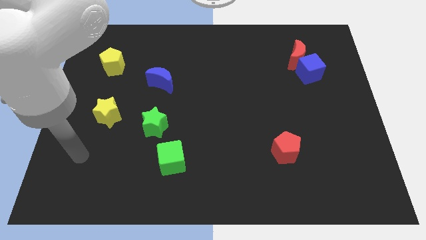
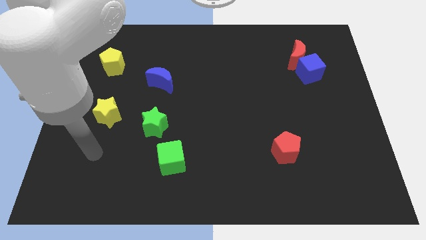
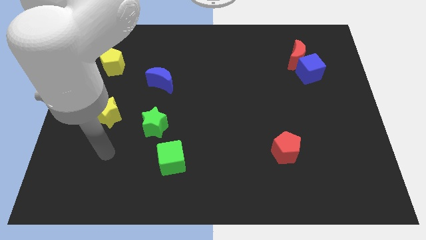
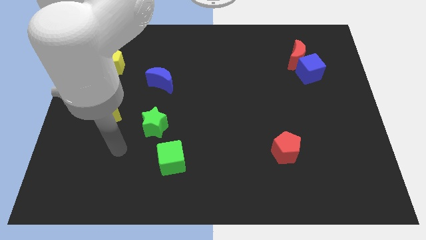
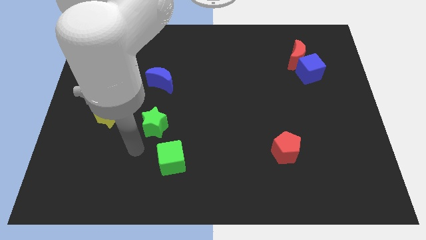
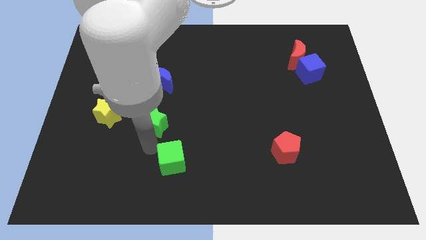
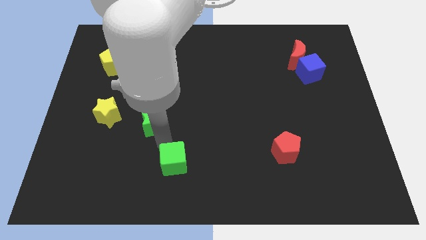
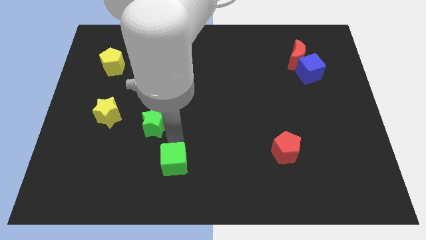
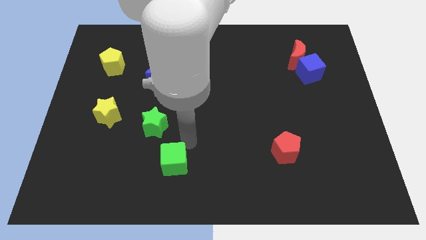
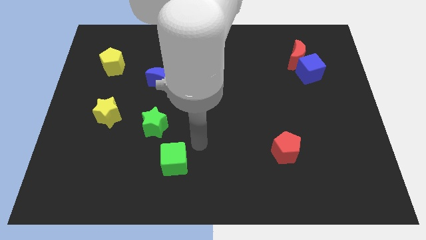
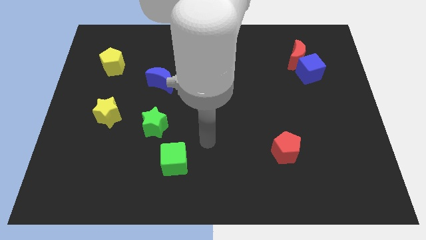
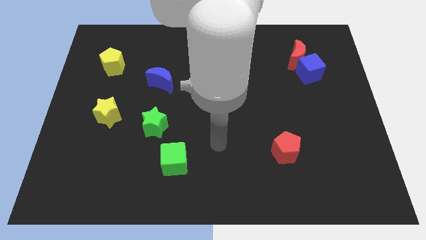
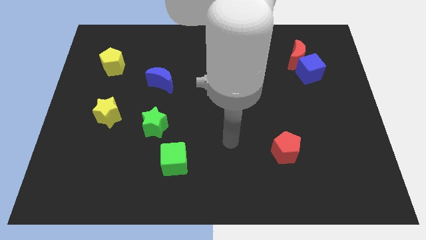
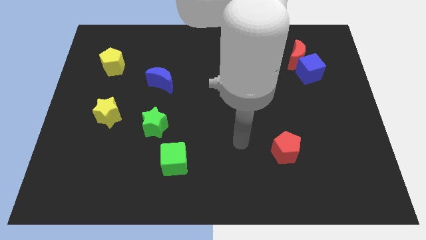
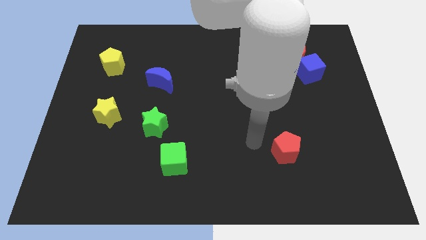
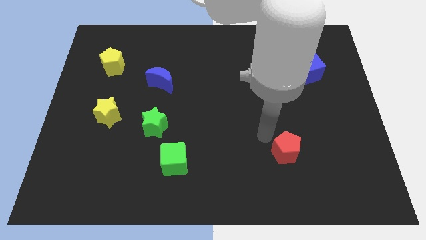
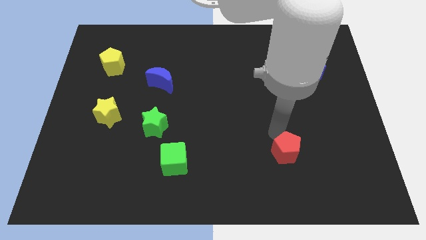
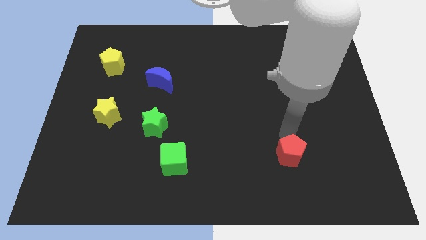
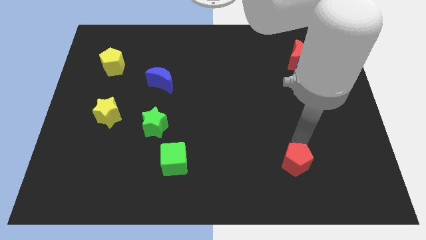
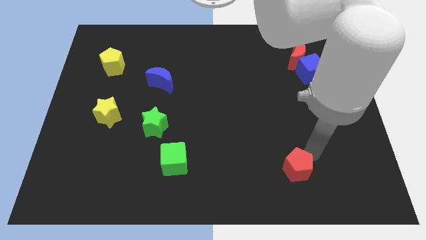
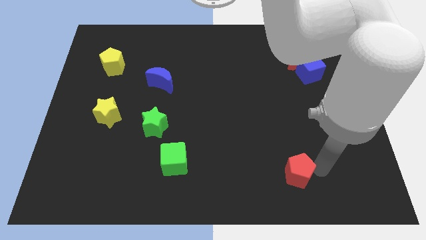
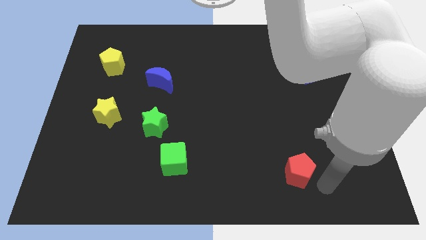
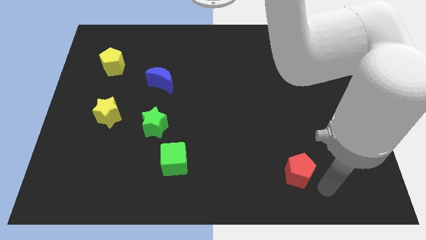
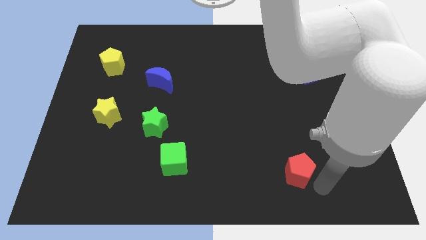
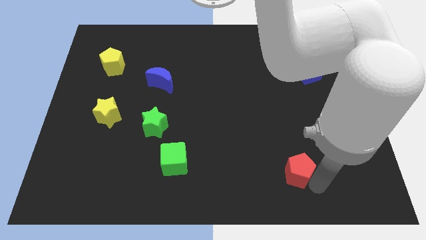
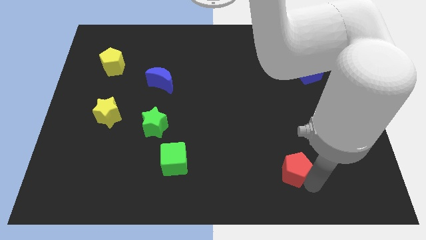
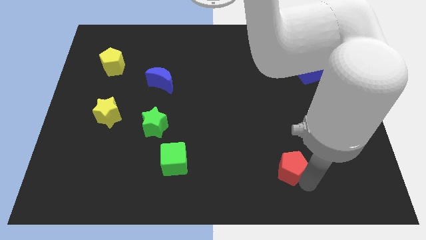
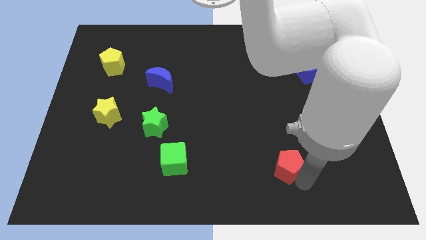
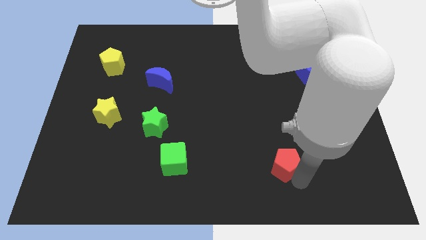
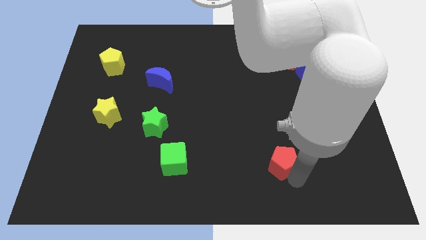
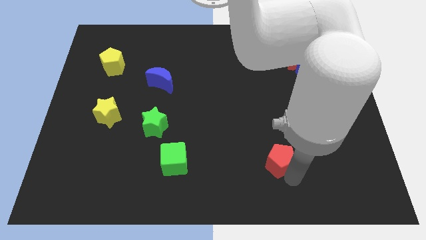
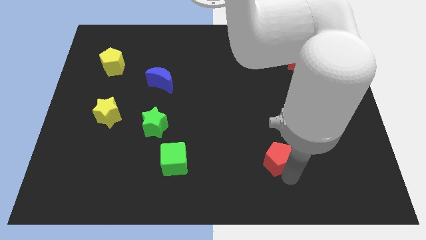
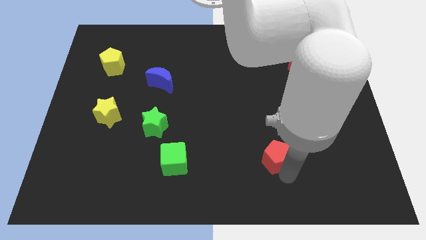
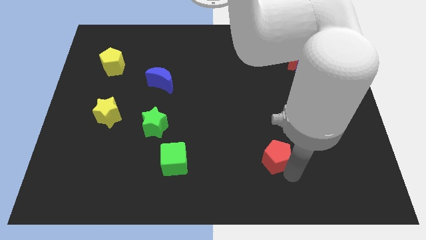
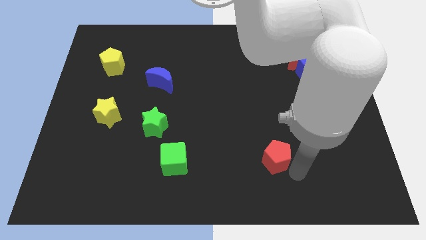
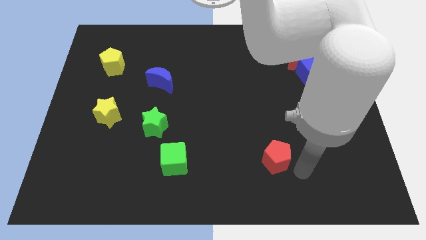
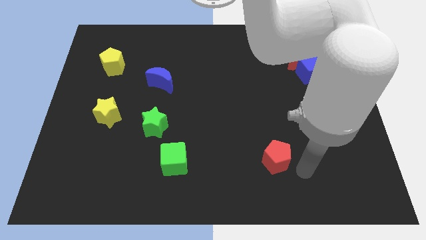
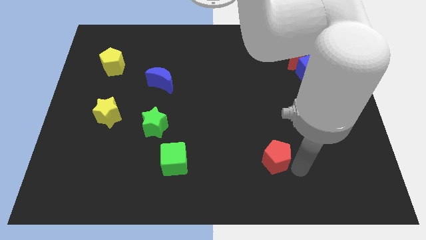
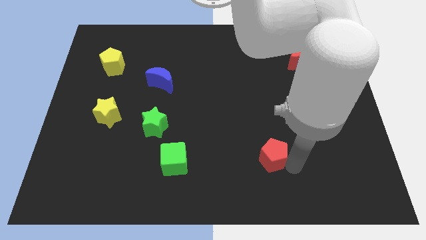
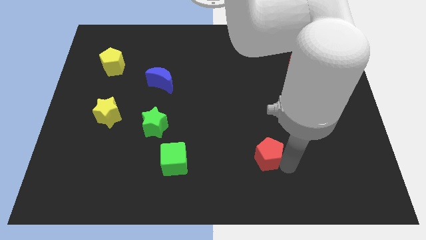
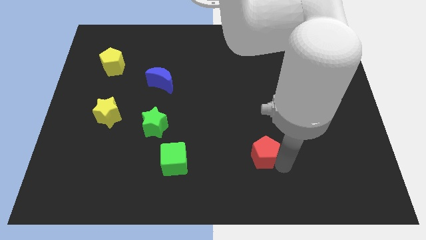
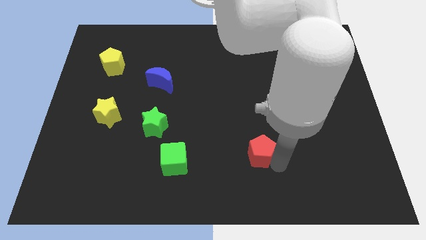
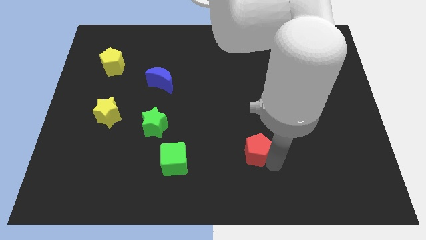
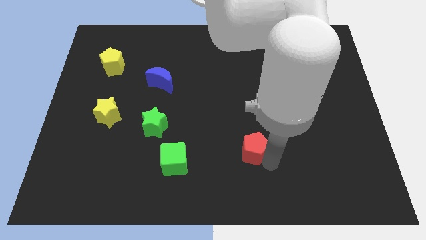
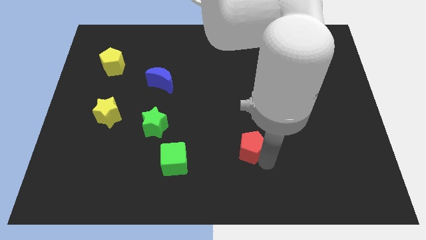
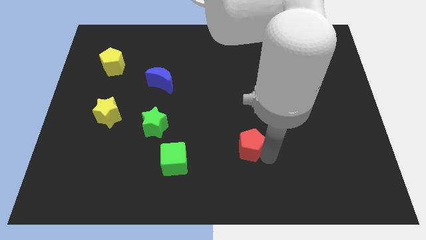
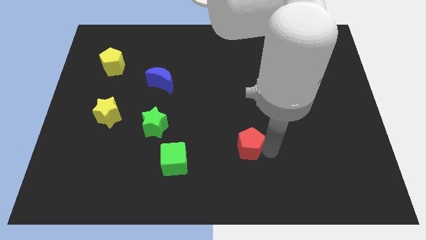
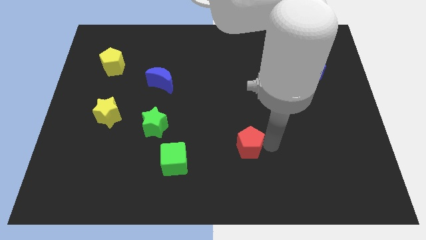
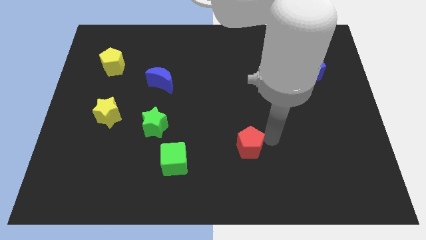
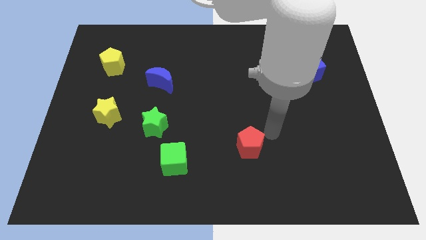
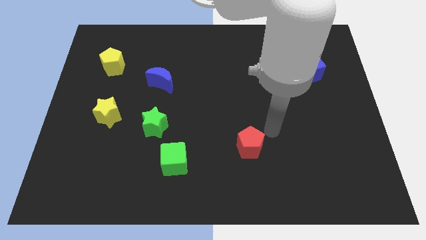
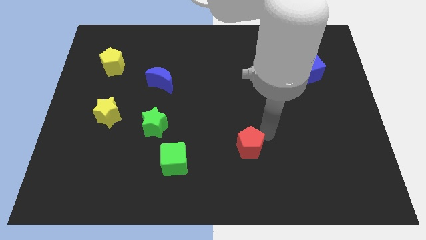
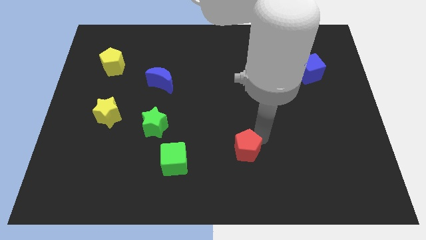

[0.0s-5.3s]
move the red pentagon to the right of the green cube
